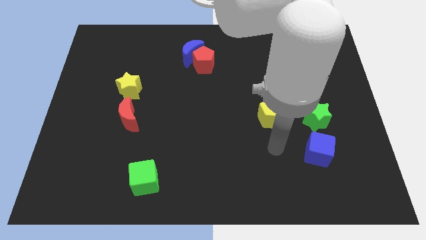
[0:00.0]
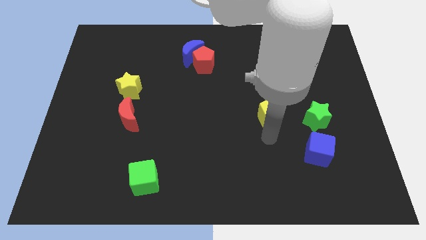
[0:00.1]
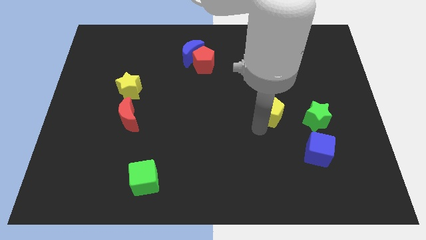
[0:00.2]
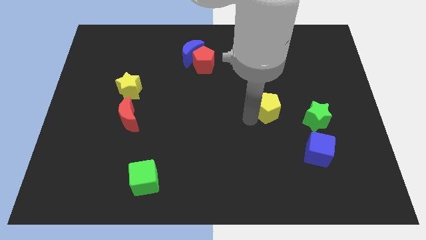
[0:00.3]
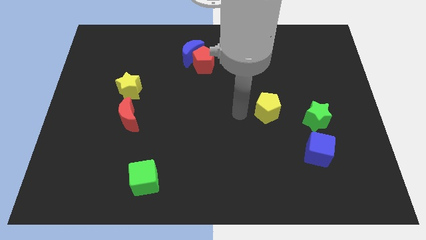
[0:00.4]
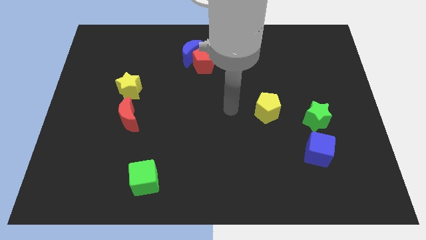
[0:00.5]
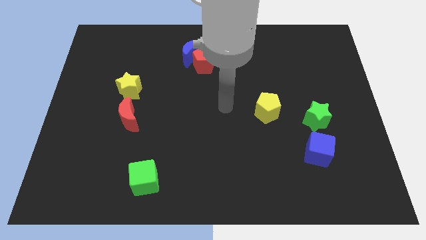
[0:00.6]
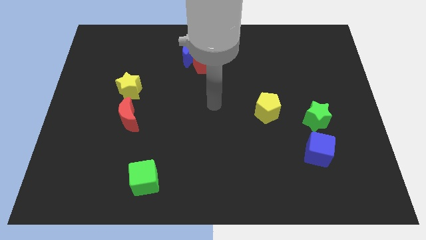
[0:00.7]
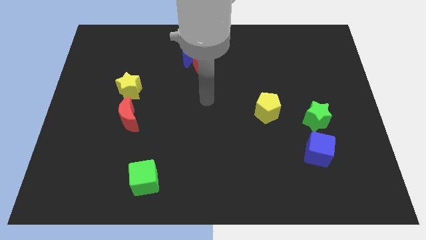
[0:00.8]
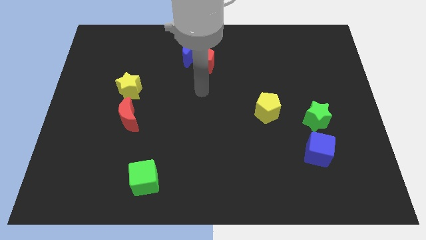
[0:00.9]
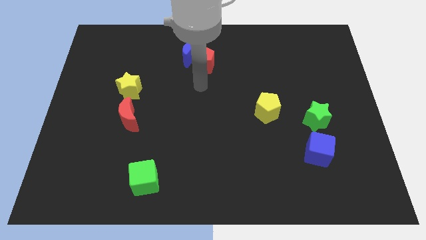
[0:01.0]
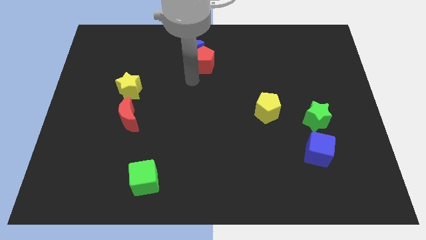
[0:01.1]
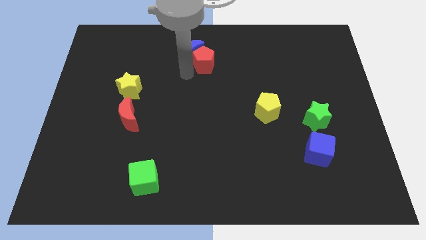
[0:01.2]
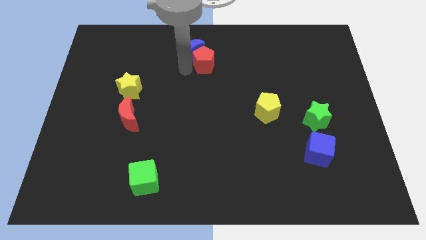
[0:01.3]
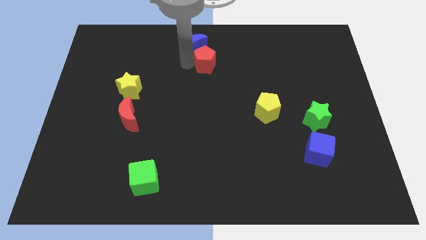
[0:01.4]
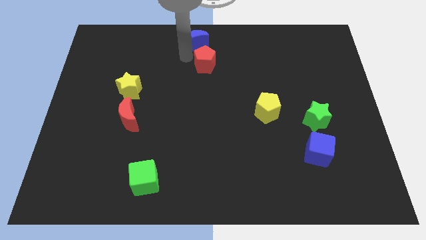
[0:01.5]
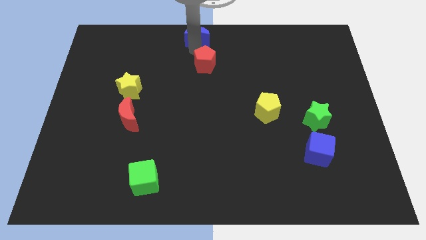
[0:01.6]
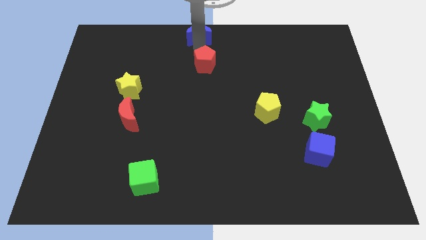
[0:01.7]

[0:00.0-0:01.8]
pull the red pentagon apart from the blue moon

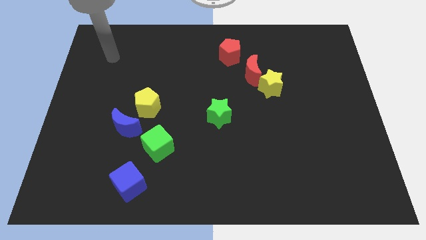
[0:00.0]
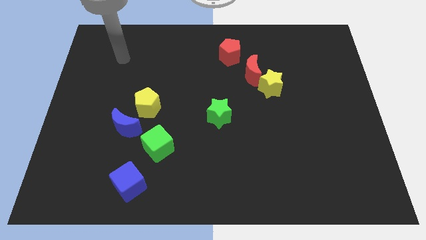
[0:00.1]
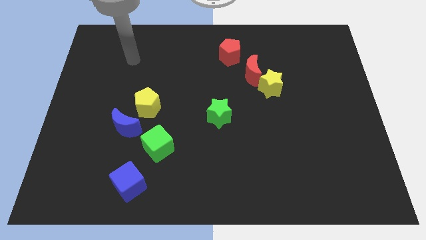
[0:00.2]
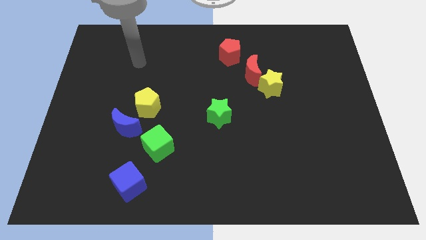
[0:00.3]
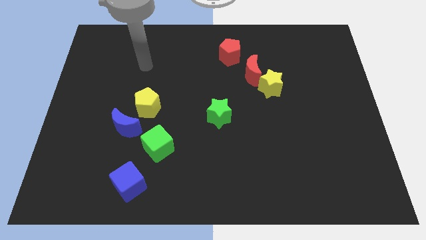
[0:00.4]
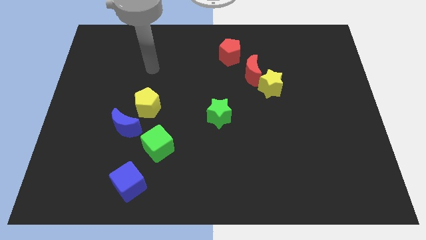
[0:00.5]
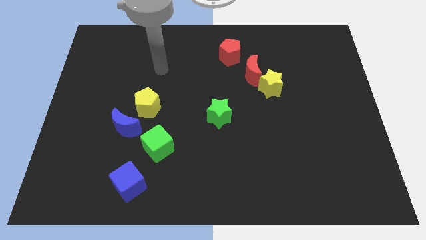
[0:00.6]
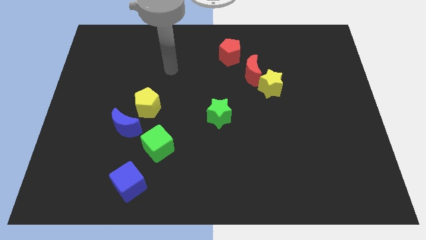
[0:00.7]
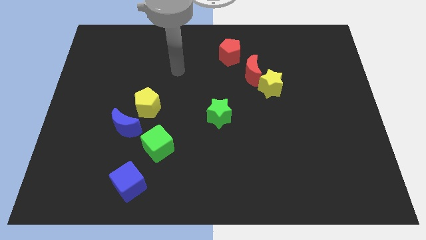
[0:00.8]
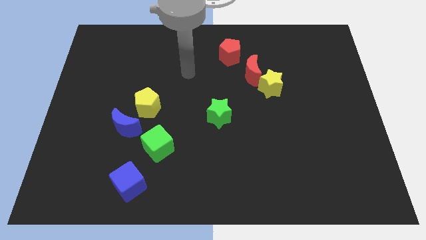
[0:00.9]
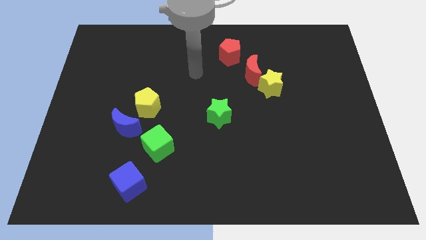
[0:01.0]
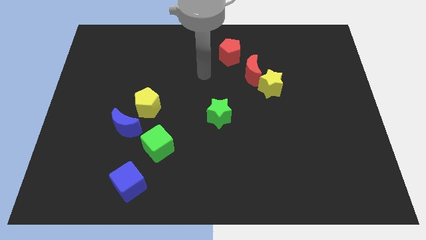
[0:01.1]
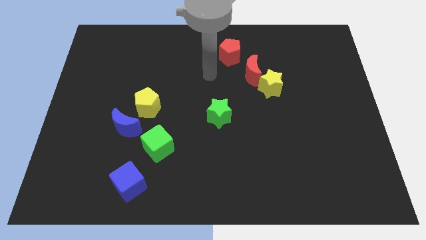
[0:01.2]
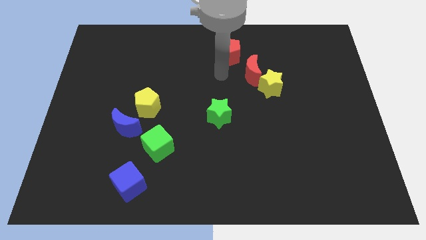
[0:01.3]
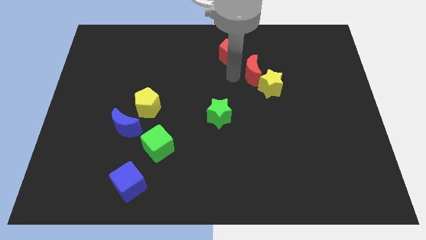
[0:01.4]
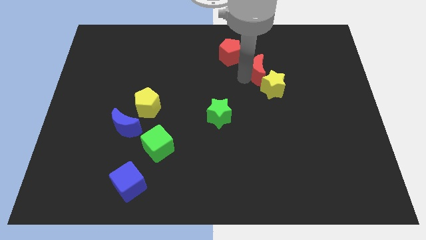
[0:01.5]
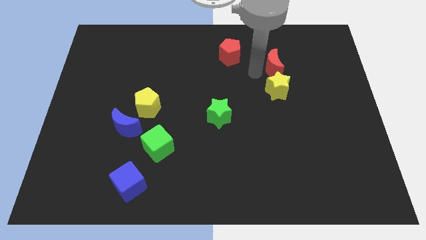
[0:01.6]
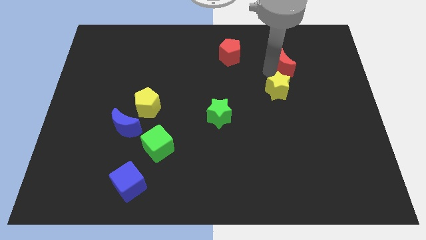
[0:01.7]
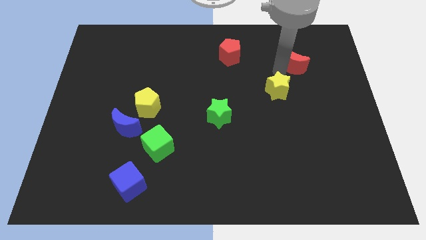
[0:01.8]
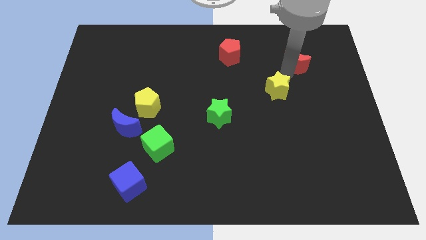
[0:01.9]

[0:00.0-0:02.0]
pull the yellow star apart from the red moon

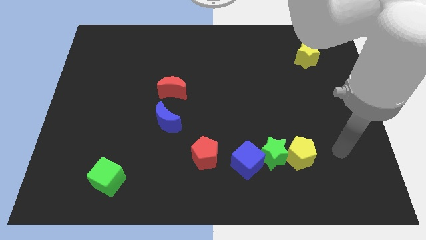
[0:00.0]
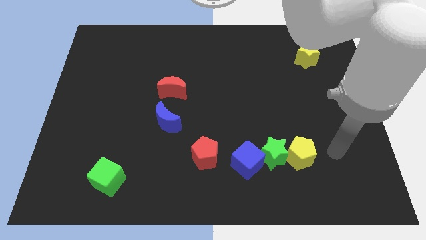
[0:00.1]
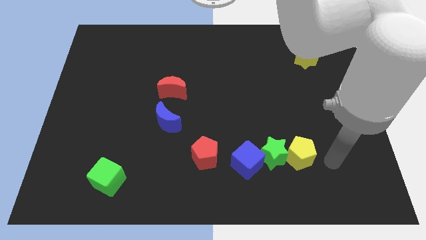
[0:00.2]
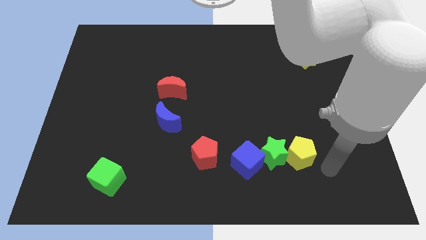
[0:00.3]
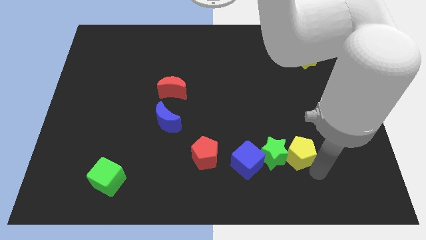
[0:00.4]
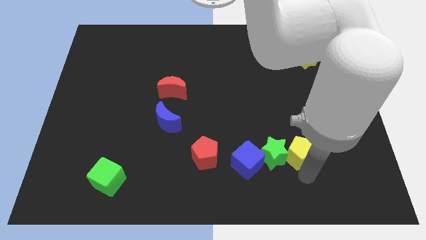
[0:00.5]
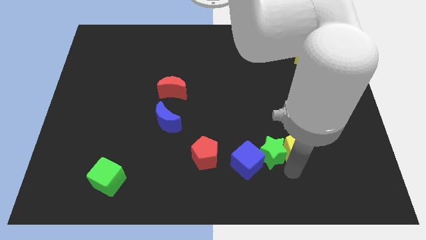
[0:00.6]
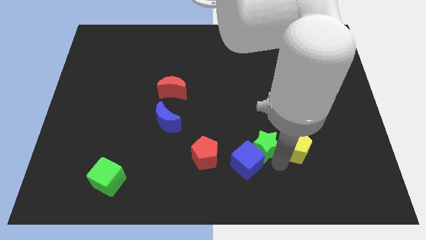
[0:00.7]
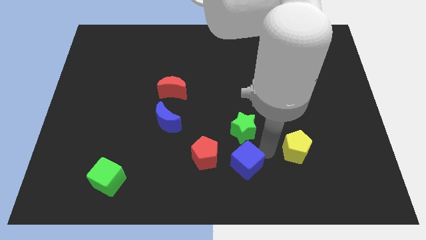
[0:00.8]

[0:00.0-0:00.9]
move the yellow pentagon away from the green star

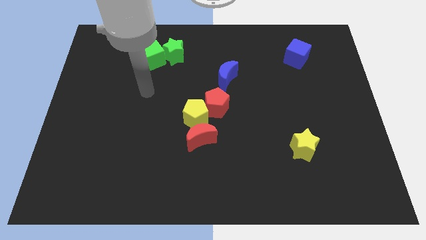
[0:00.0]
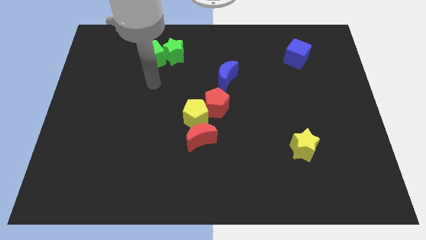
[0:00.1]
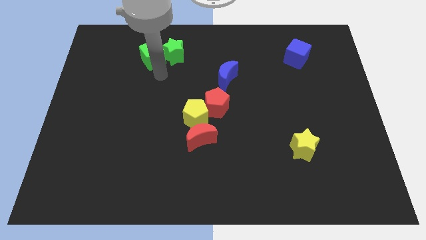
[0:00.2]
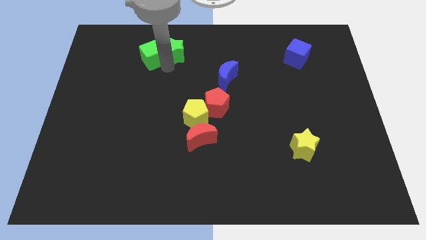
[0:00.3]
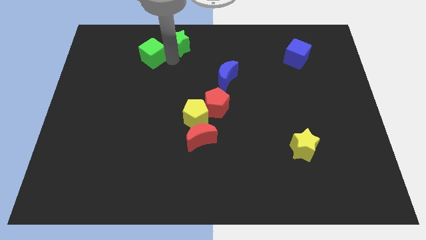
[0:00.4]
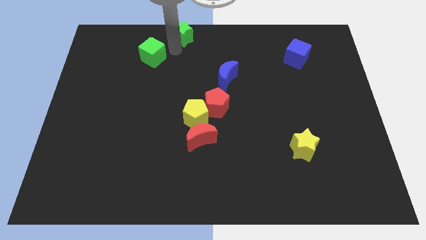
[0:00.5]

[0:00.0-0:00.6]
pull the green cube apart from the green star

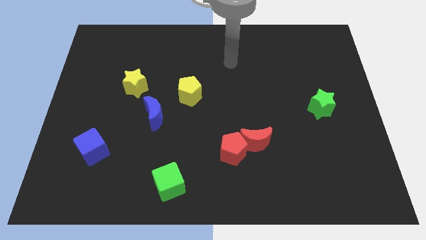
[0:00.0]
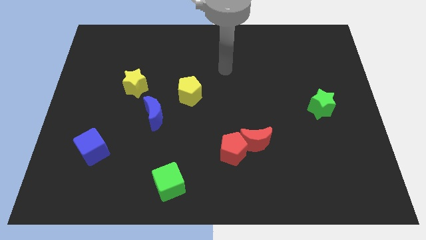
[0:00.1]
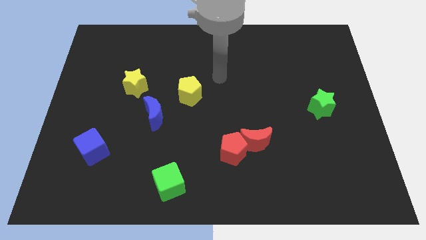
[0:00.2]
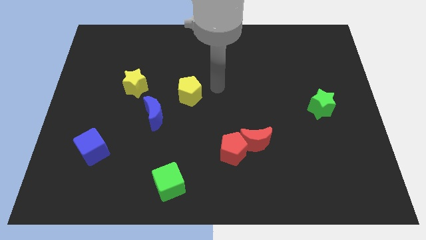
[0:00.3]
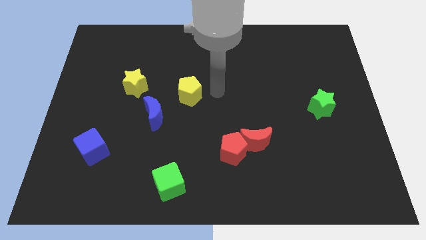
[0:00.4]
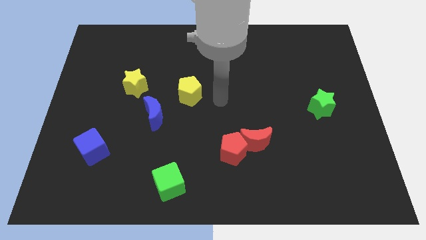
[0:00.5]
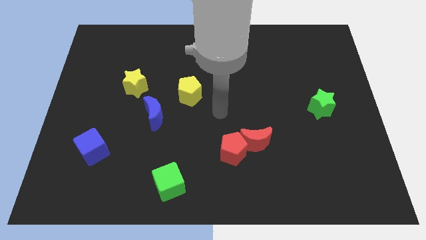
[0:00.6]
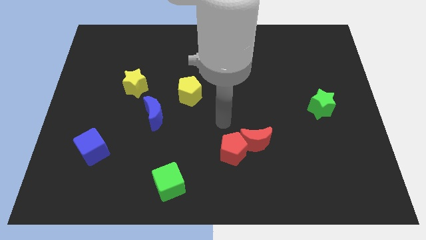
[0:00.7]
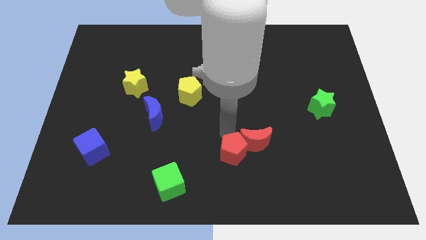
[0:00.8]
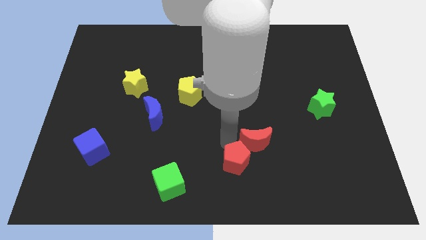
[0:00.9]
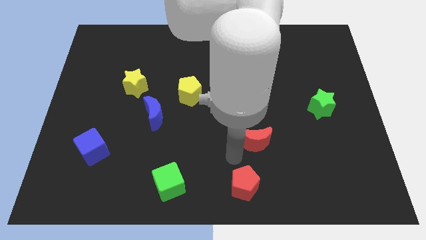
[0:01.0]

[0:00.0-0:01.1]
separate the red moon from the red pentagon

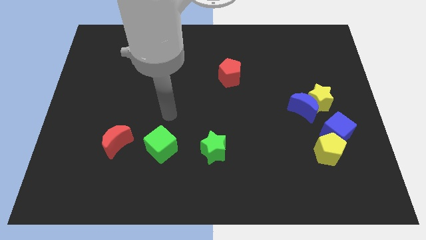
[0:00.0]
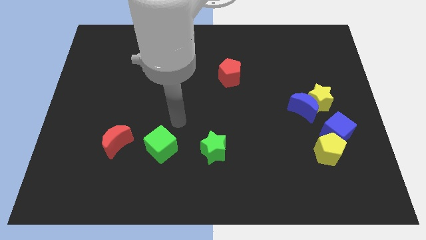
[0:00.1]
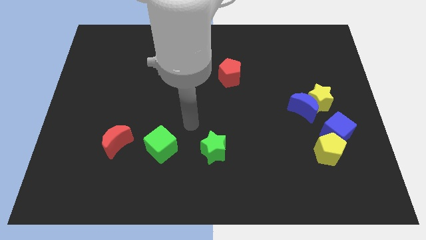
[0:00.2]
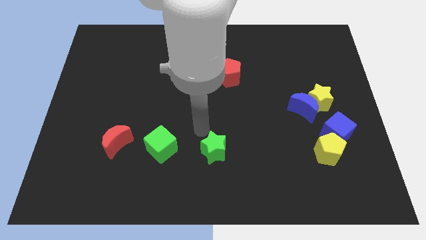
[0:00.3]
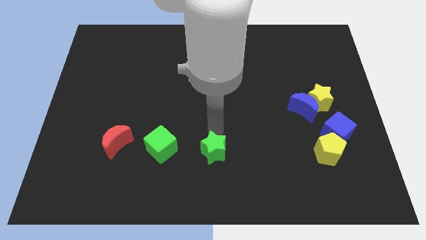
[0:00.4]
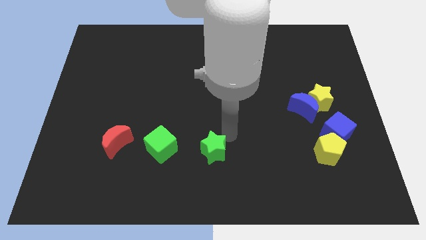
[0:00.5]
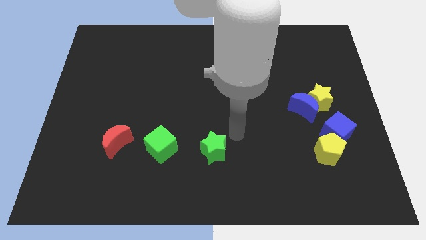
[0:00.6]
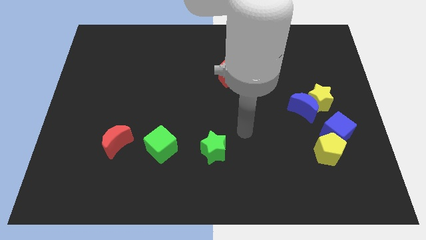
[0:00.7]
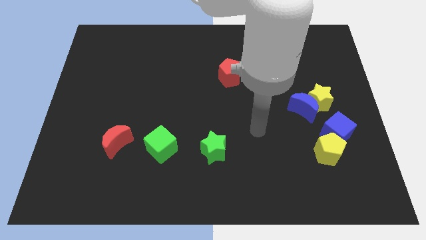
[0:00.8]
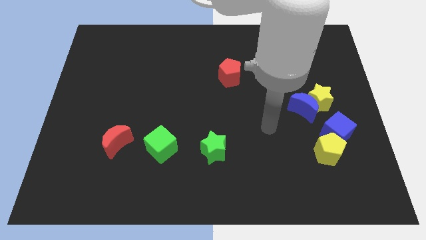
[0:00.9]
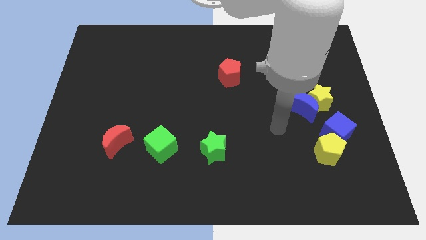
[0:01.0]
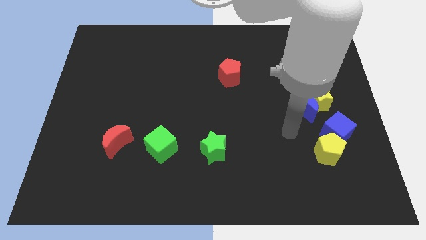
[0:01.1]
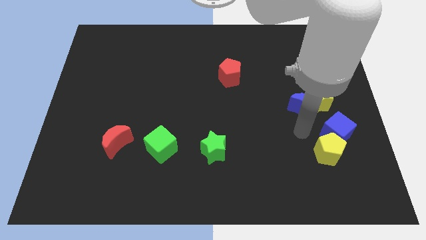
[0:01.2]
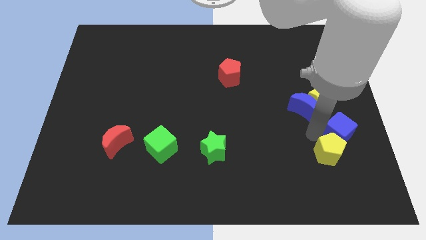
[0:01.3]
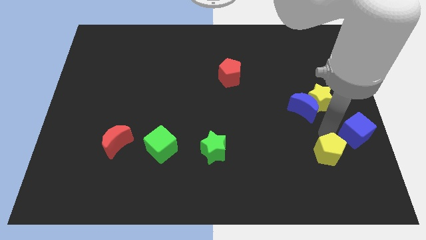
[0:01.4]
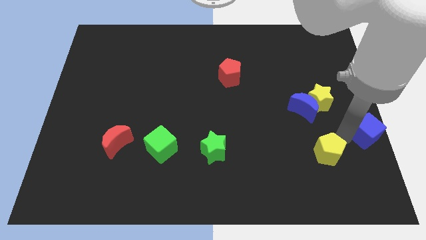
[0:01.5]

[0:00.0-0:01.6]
separate the yellow pentagon from the blue cube

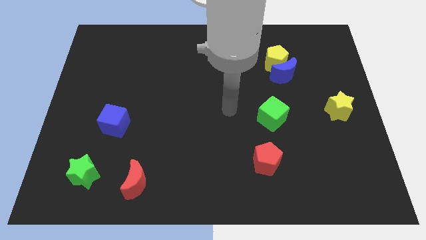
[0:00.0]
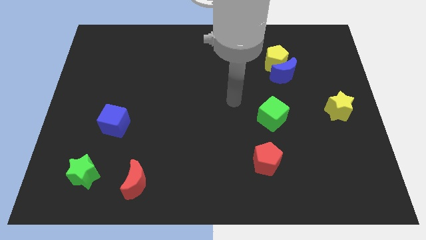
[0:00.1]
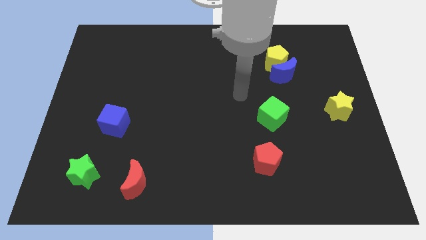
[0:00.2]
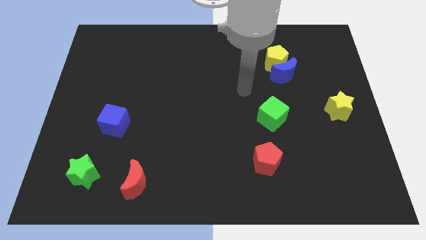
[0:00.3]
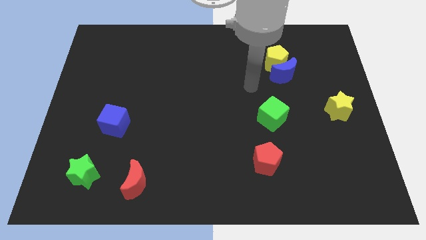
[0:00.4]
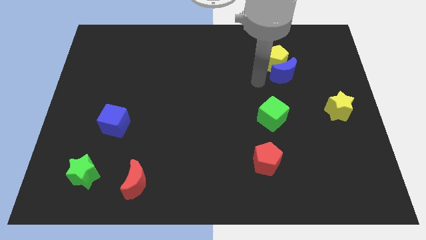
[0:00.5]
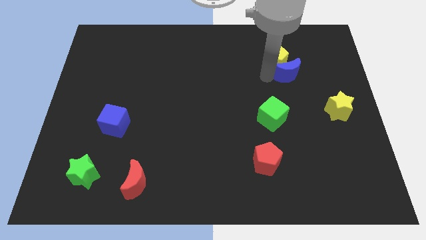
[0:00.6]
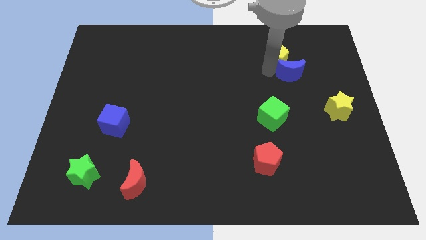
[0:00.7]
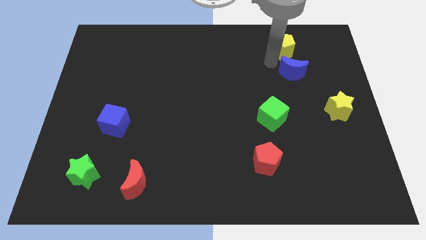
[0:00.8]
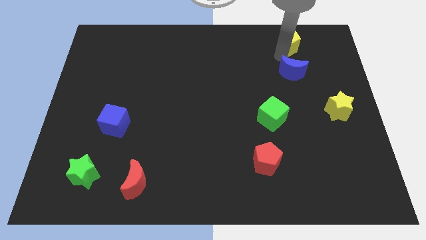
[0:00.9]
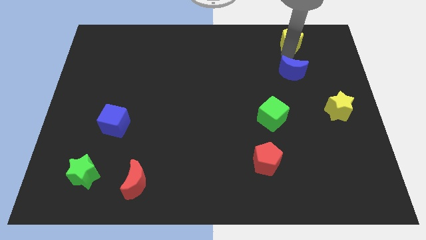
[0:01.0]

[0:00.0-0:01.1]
move the blue moon away from the yellow pentagon

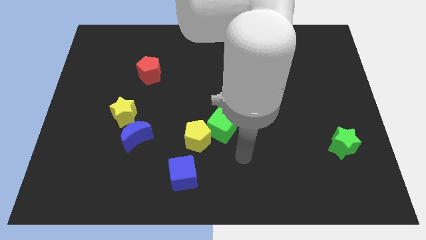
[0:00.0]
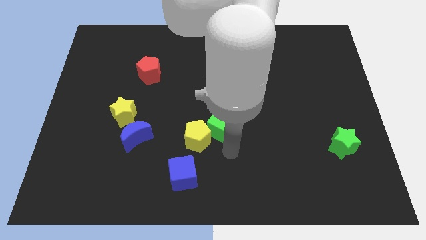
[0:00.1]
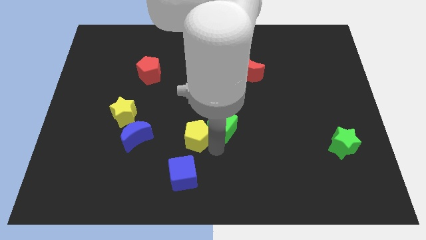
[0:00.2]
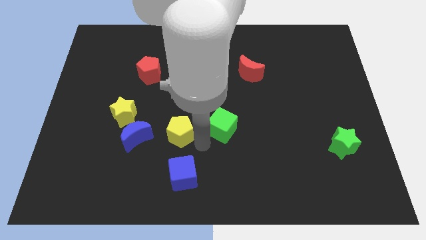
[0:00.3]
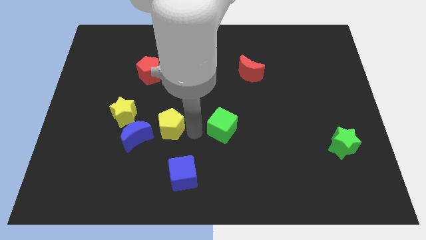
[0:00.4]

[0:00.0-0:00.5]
pull the green cube apart from the yellow pentagon
